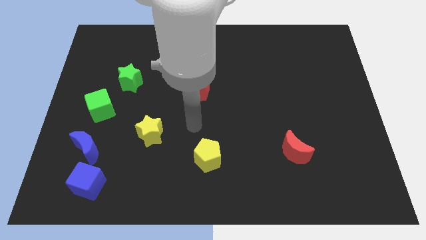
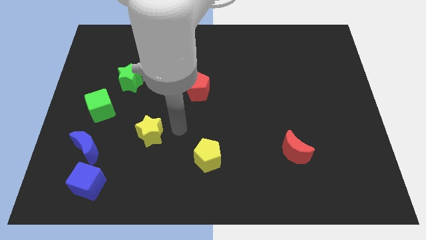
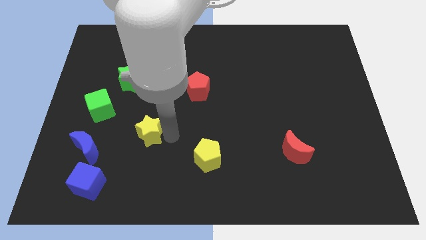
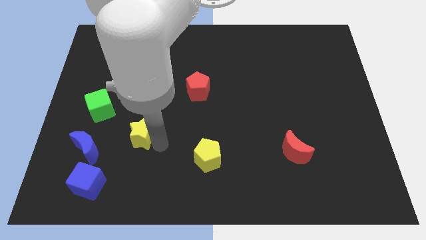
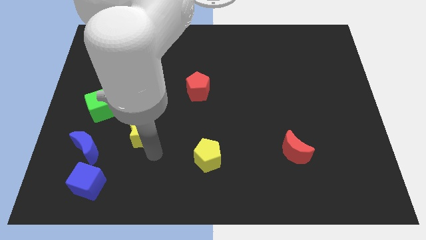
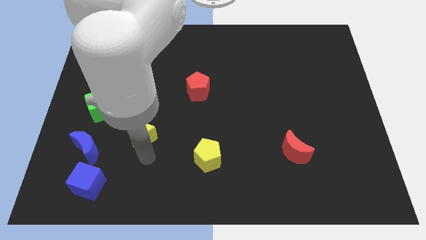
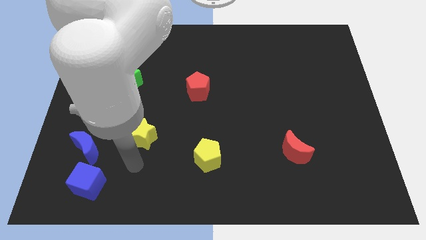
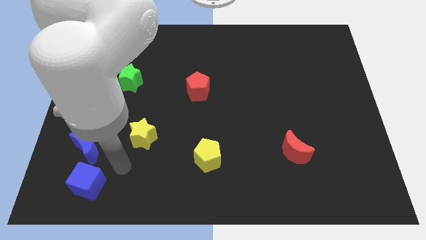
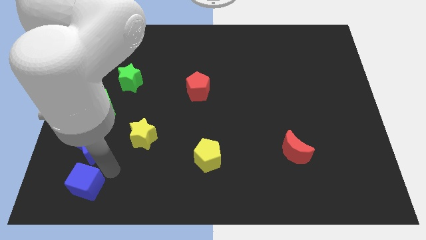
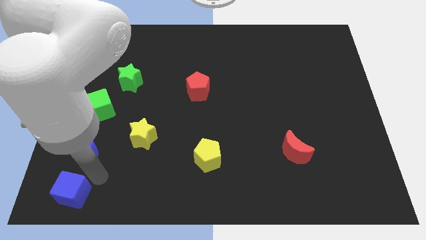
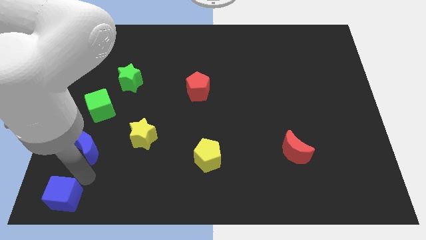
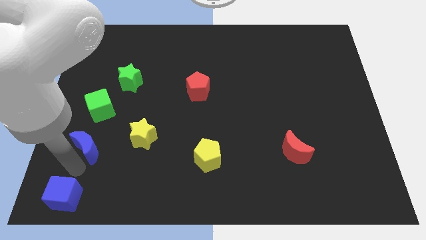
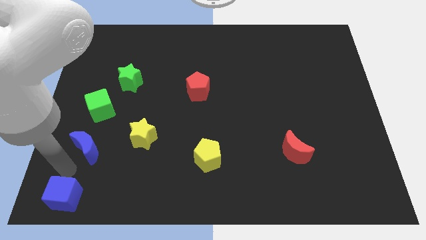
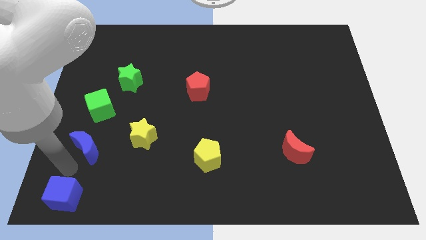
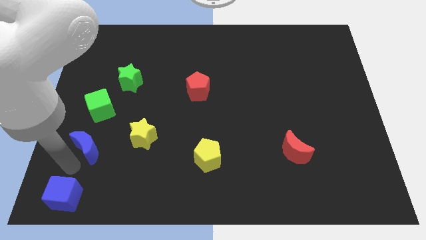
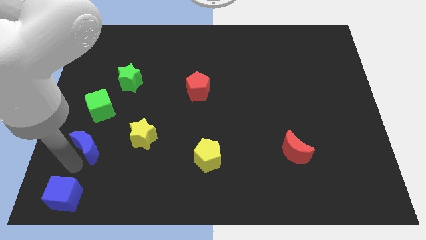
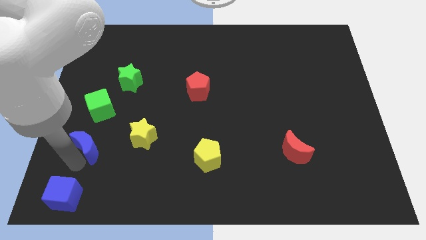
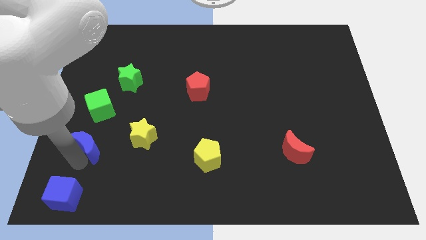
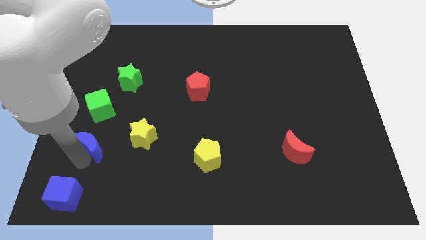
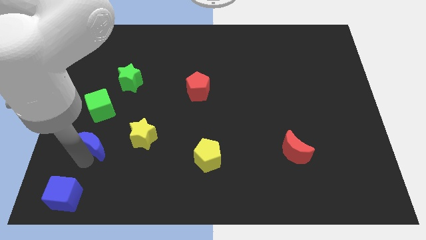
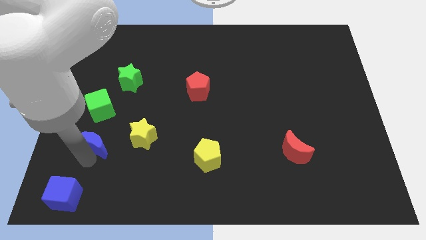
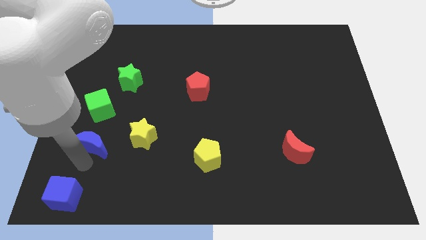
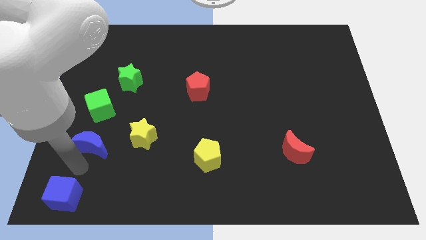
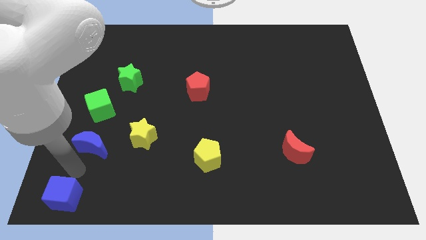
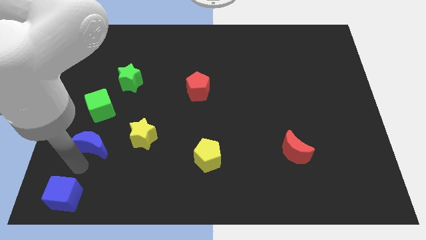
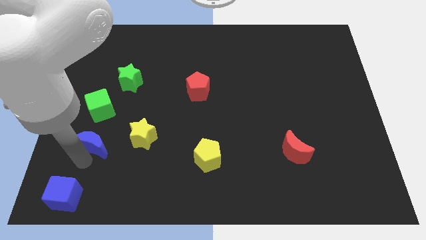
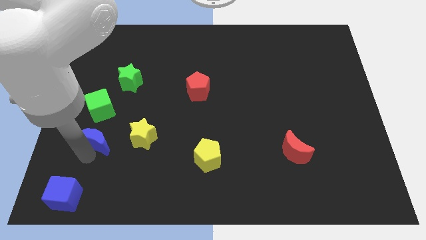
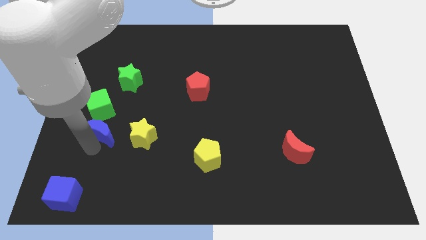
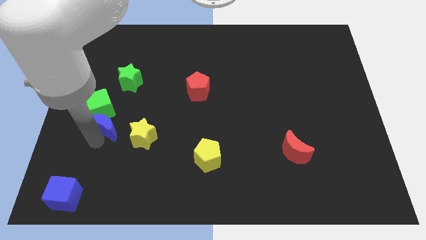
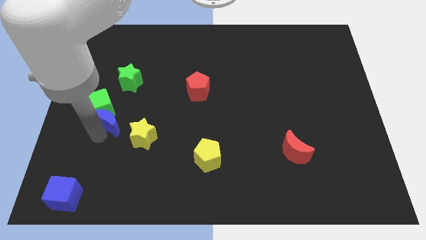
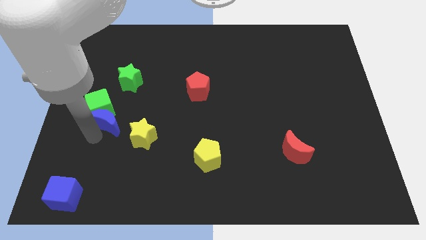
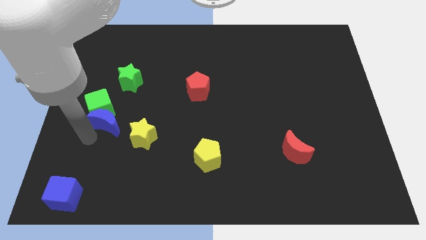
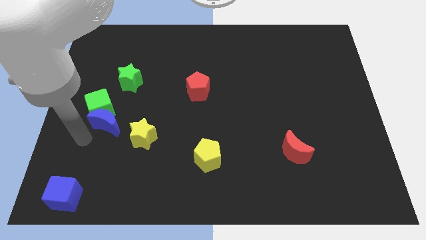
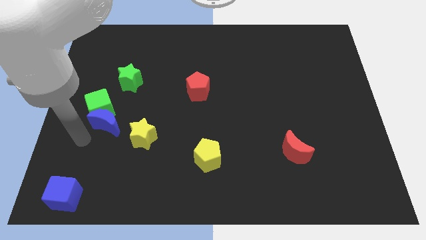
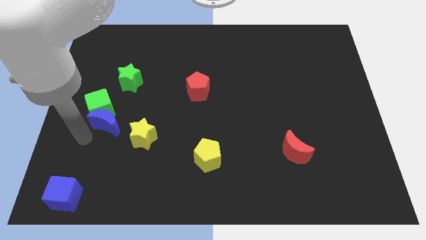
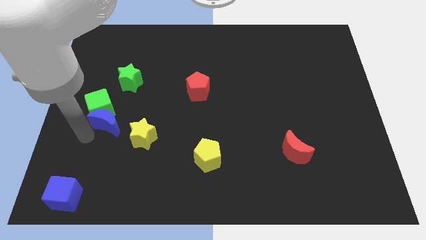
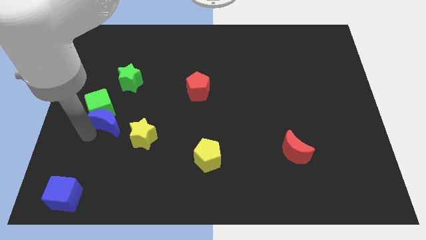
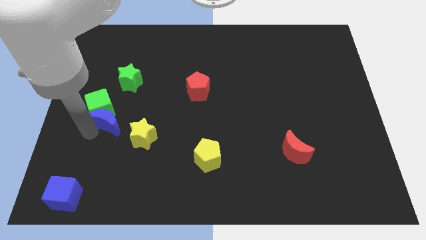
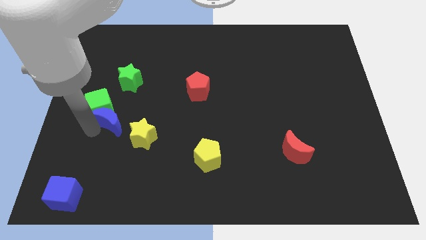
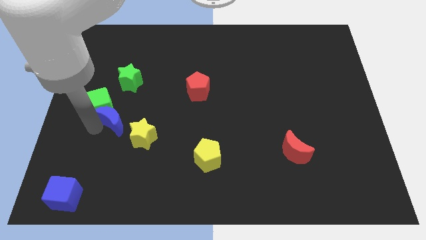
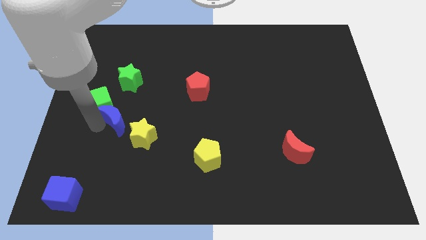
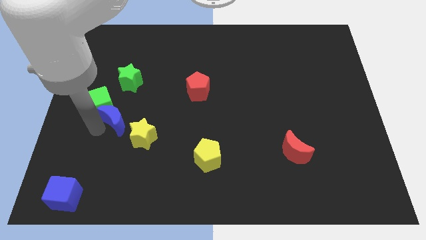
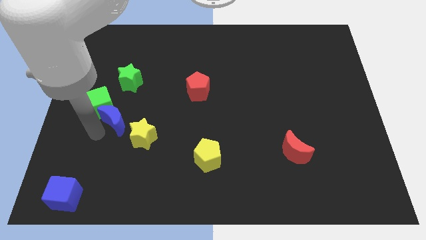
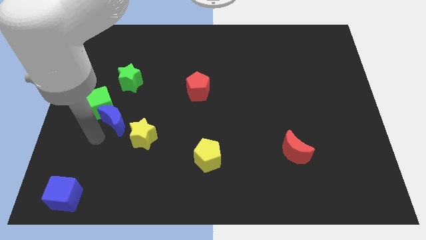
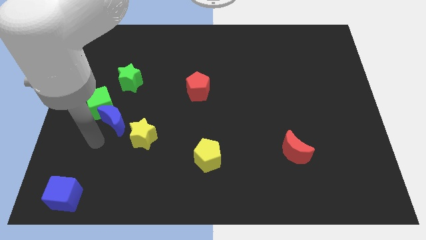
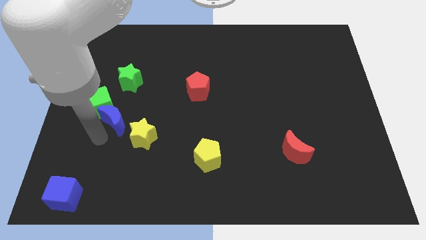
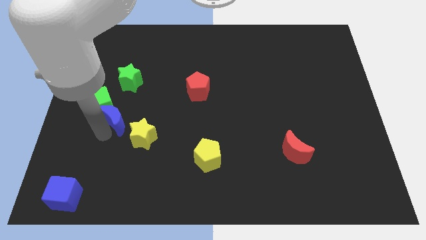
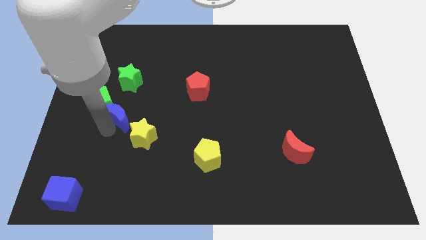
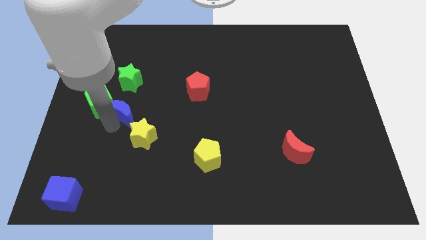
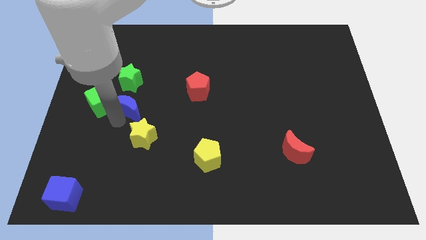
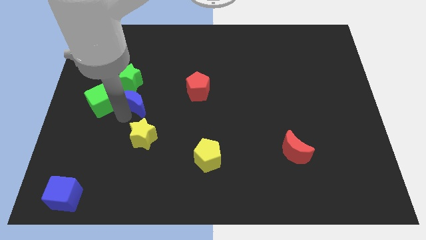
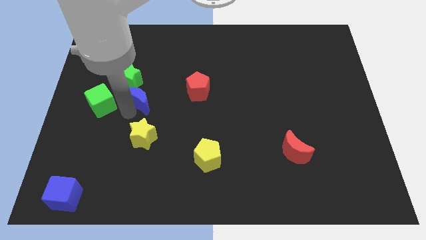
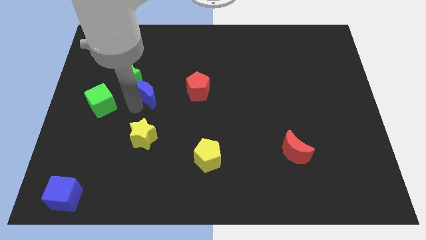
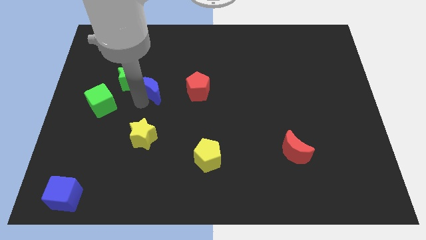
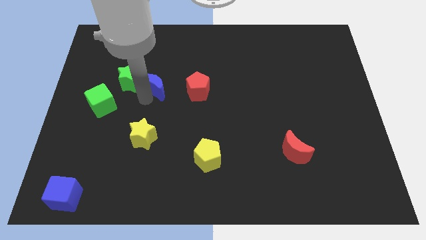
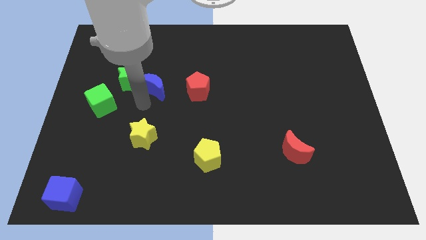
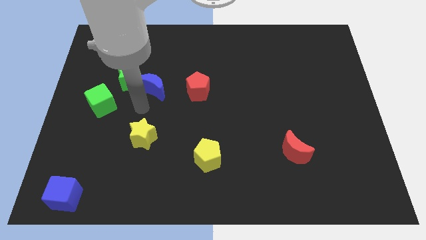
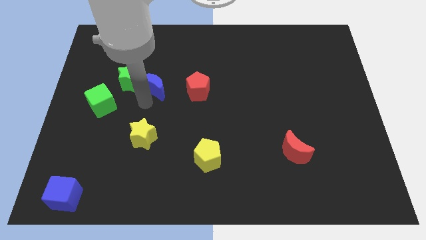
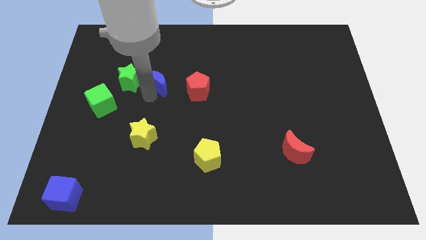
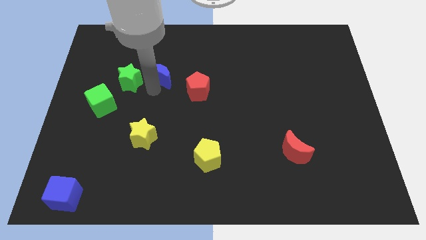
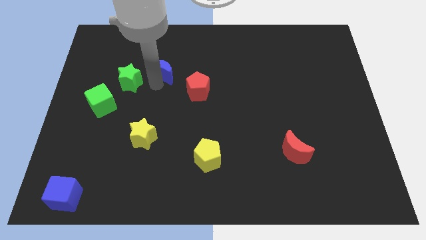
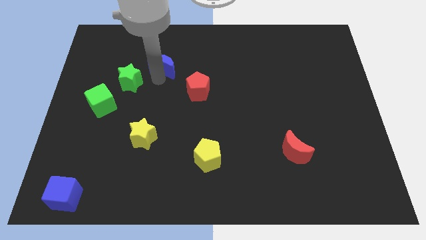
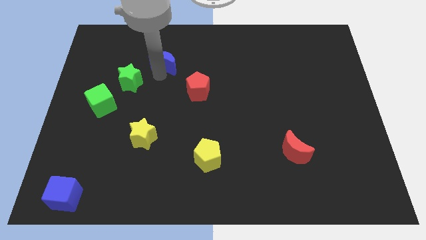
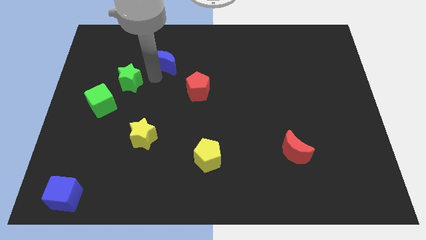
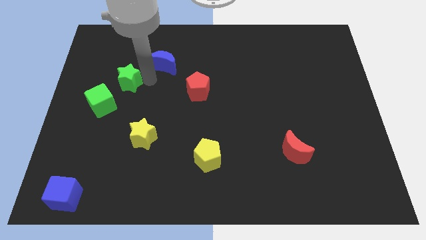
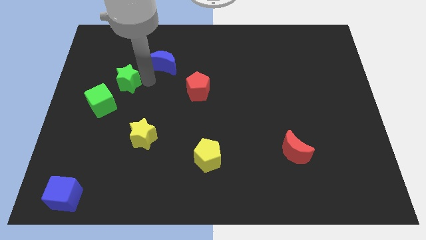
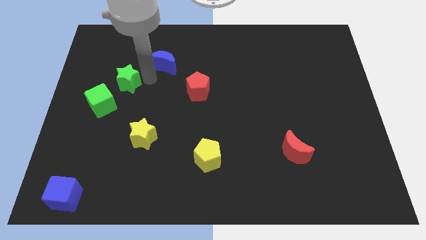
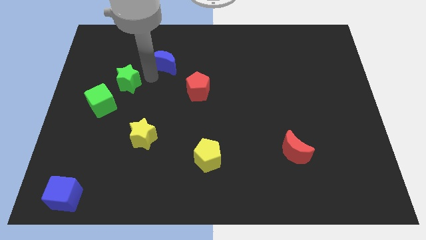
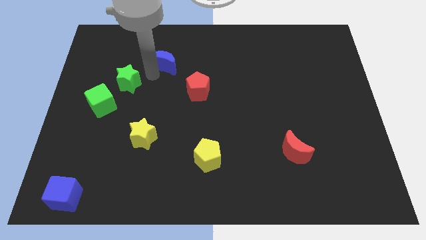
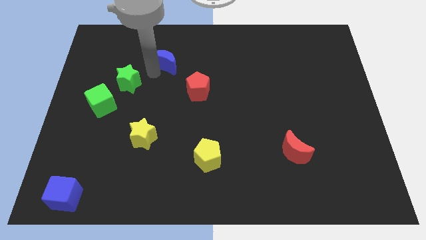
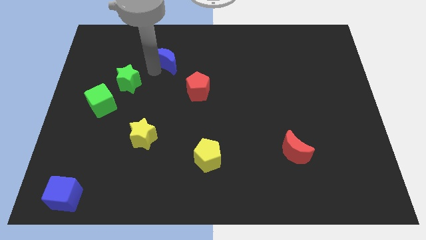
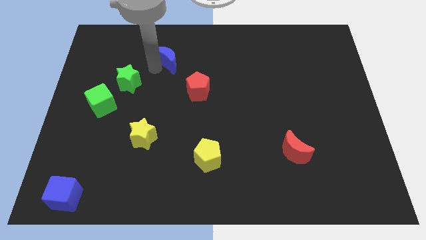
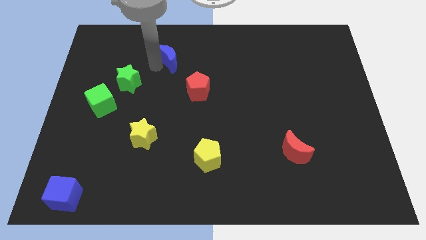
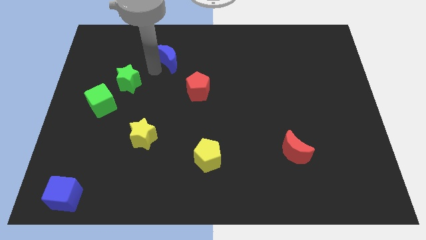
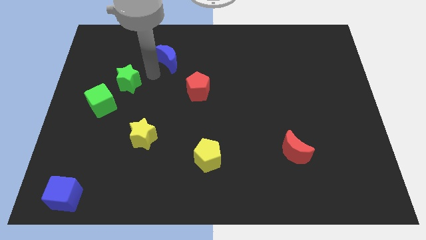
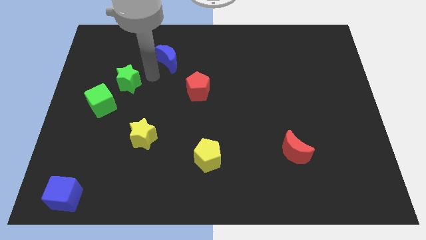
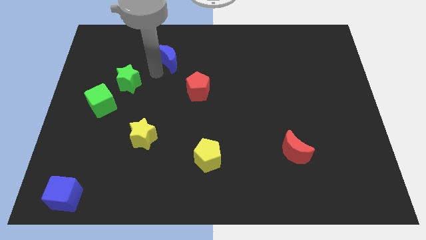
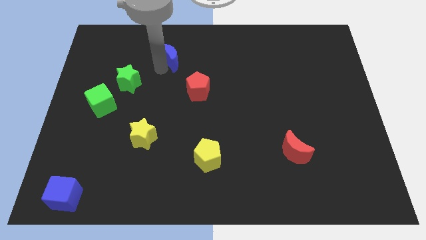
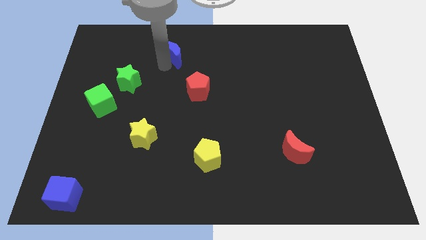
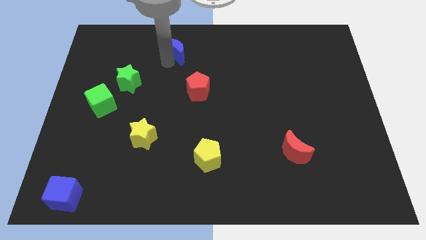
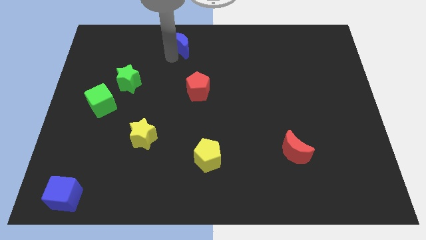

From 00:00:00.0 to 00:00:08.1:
slide the blue moon to the top side
